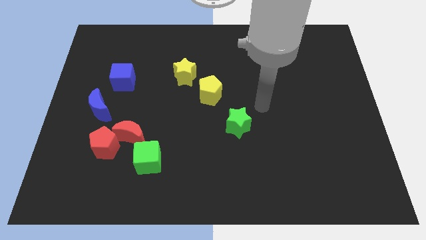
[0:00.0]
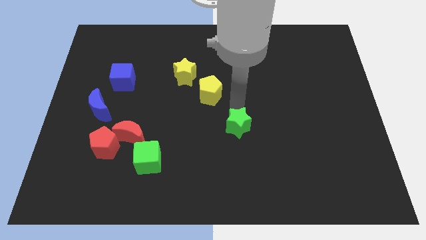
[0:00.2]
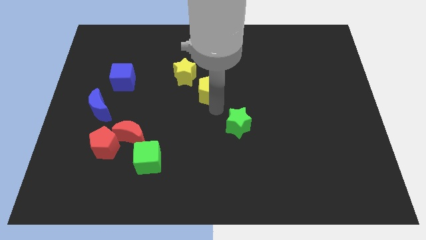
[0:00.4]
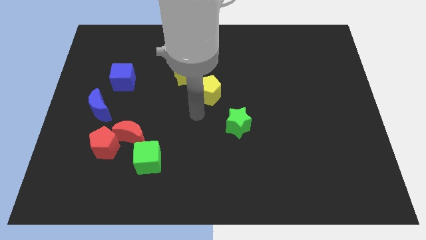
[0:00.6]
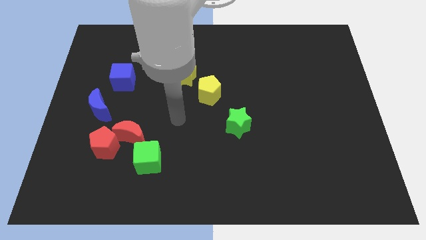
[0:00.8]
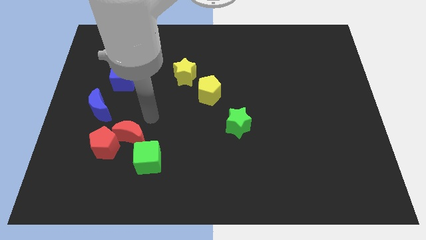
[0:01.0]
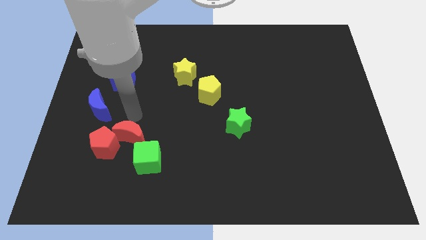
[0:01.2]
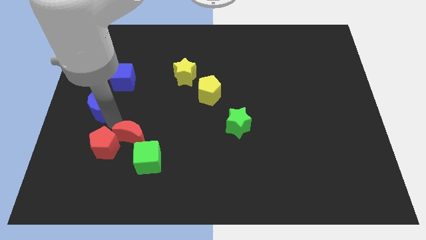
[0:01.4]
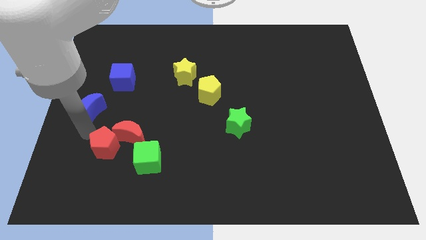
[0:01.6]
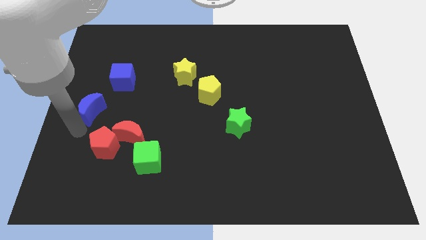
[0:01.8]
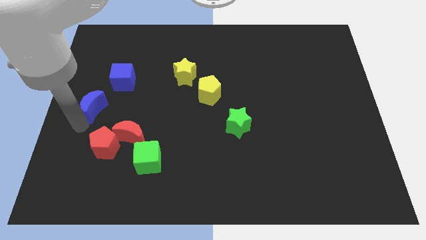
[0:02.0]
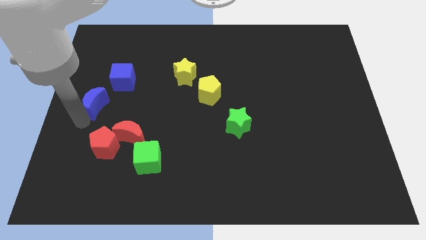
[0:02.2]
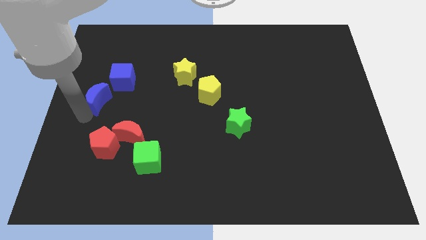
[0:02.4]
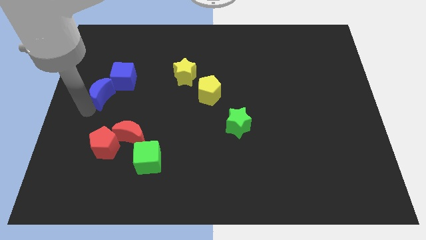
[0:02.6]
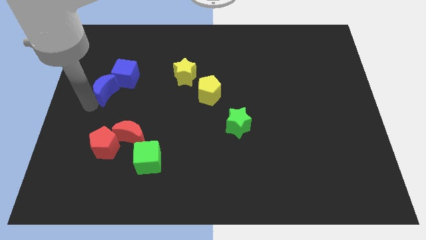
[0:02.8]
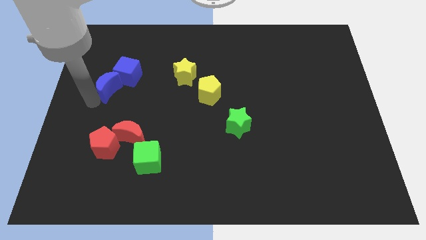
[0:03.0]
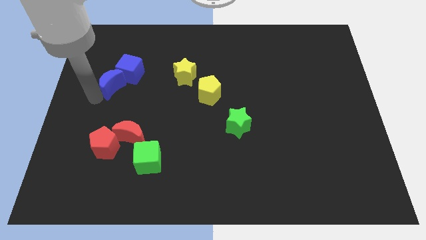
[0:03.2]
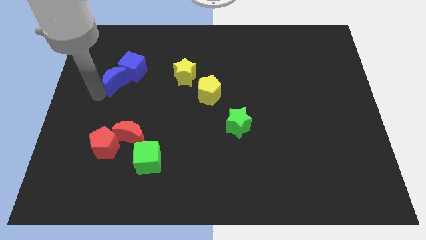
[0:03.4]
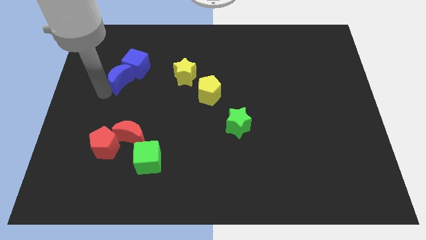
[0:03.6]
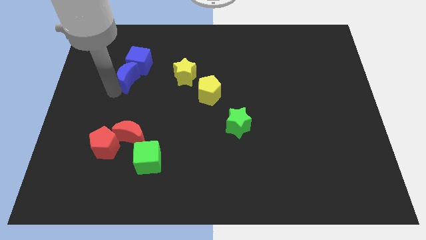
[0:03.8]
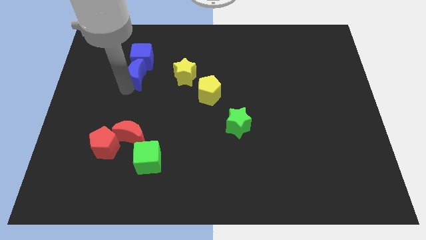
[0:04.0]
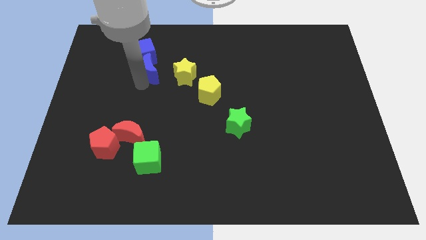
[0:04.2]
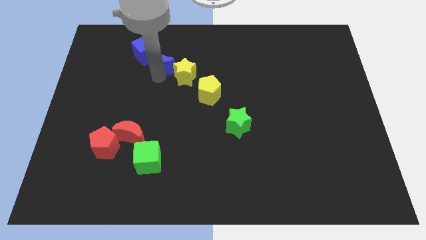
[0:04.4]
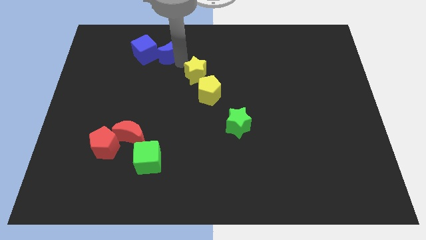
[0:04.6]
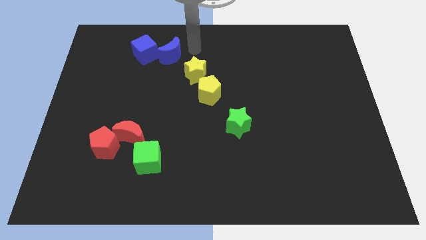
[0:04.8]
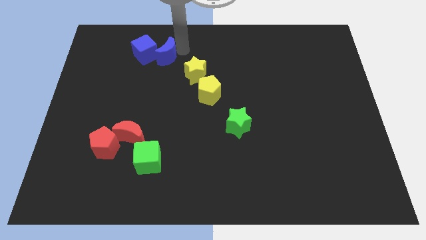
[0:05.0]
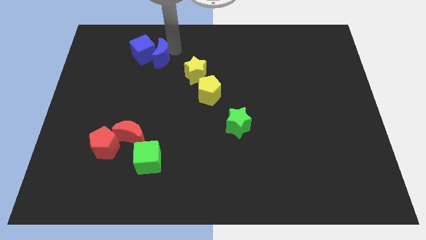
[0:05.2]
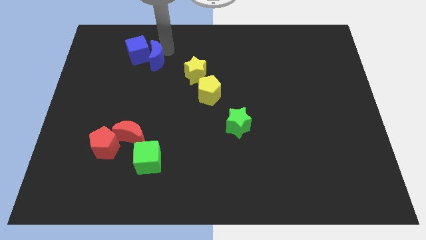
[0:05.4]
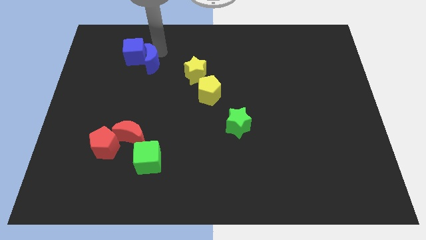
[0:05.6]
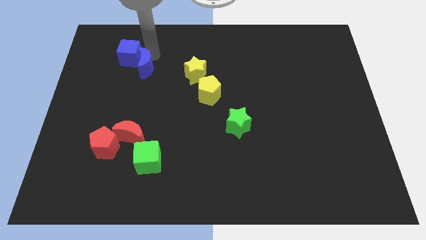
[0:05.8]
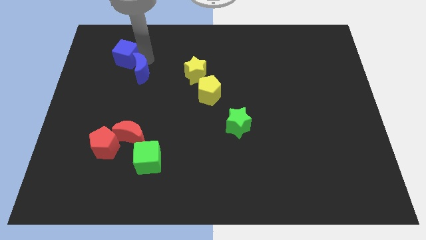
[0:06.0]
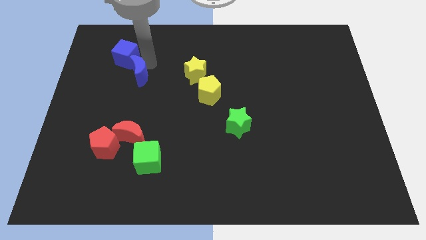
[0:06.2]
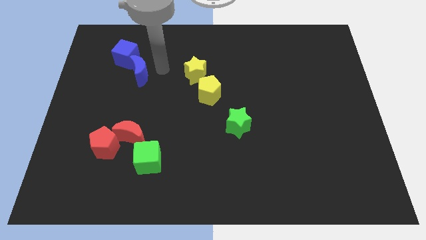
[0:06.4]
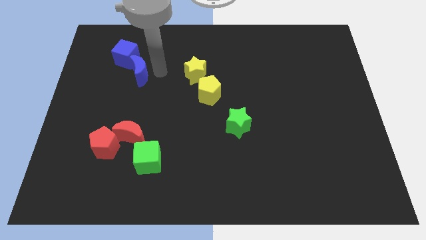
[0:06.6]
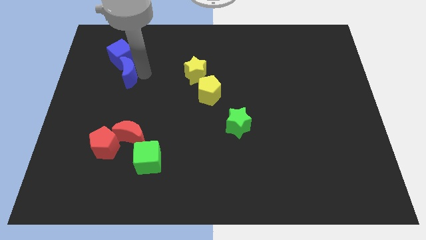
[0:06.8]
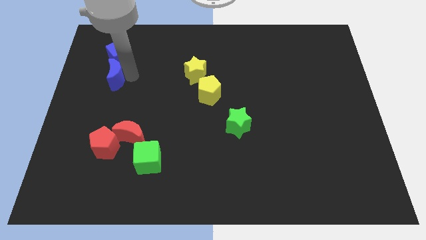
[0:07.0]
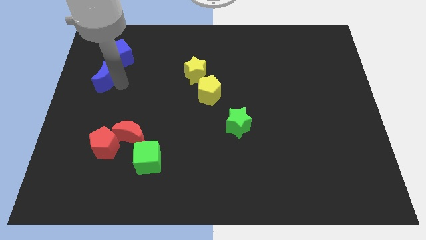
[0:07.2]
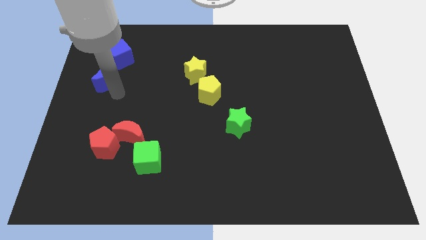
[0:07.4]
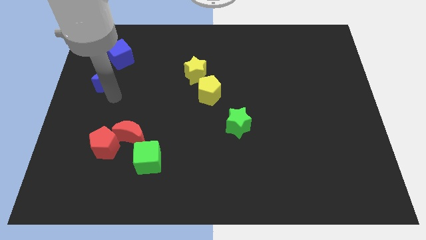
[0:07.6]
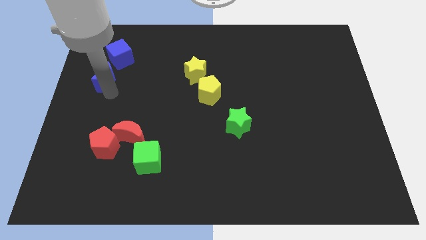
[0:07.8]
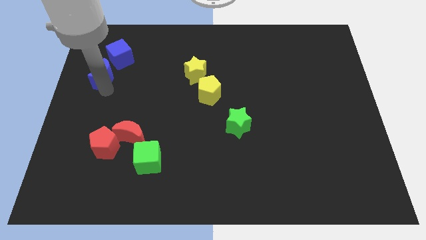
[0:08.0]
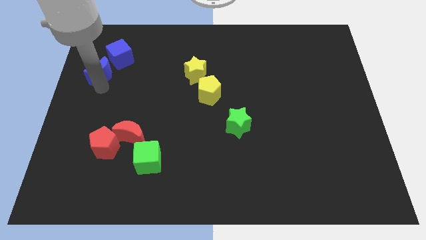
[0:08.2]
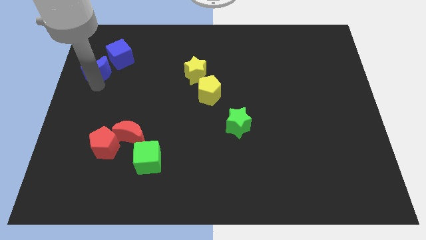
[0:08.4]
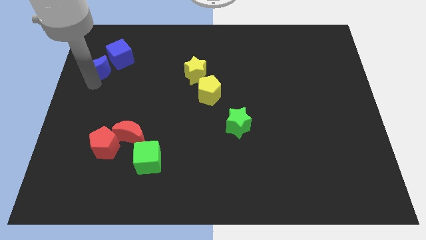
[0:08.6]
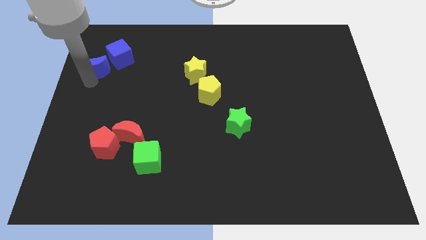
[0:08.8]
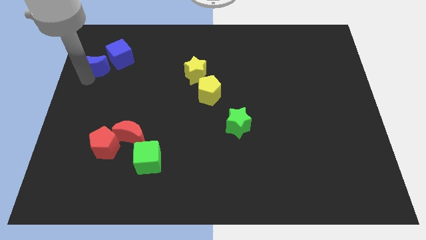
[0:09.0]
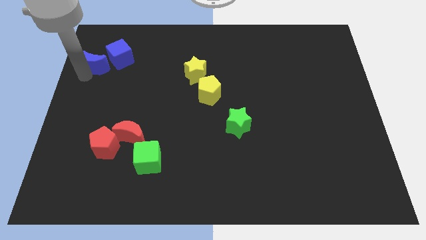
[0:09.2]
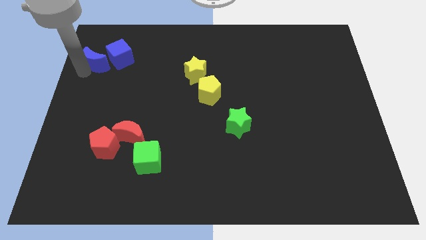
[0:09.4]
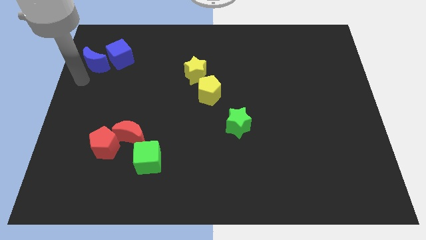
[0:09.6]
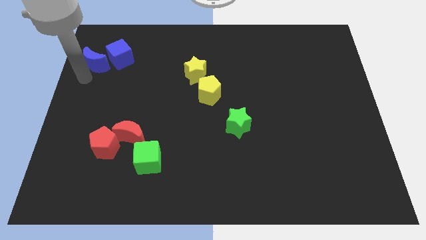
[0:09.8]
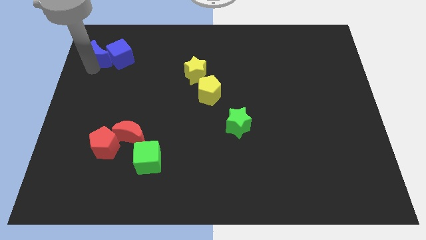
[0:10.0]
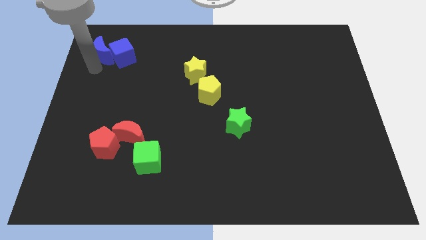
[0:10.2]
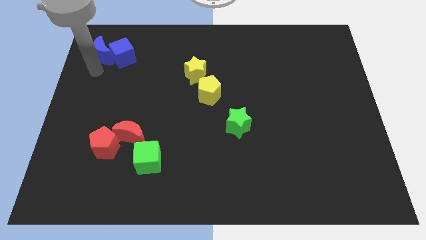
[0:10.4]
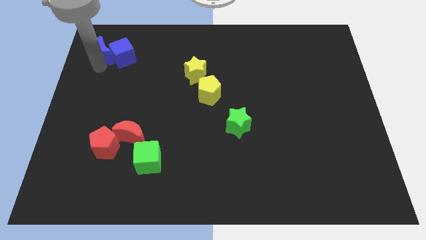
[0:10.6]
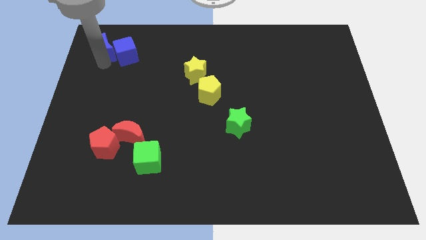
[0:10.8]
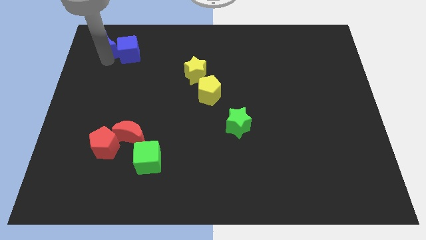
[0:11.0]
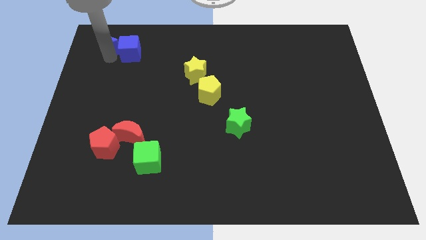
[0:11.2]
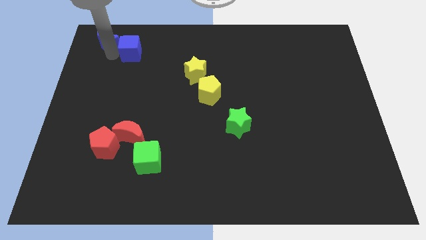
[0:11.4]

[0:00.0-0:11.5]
put the blue moon to the top left of the board
